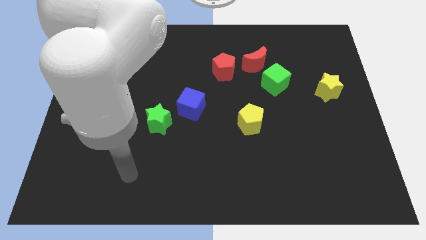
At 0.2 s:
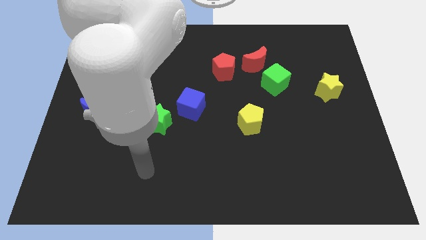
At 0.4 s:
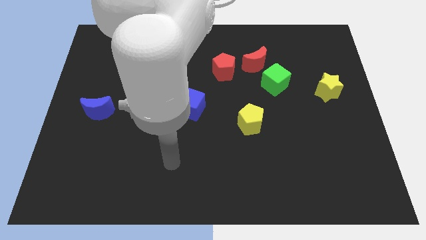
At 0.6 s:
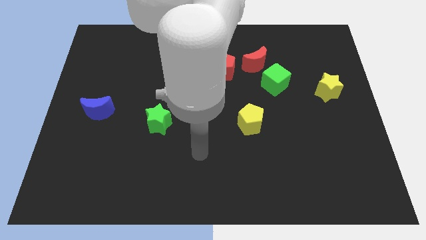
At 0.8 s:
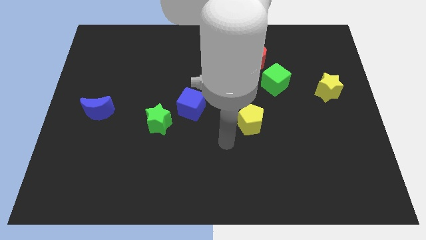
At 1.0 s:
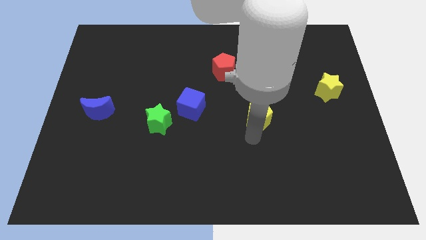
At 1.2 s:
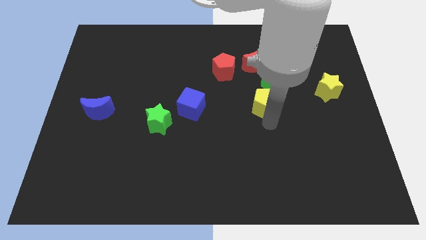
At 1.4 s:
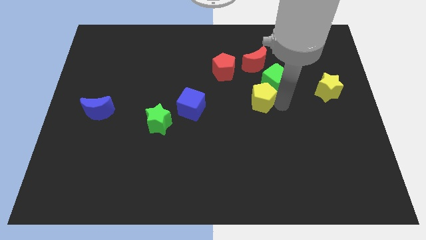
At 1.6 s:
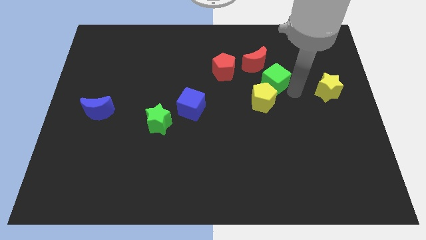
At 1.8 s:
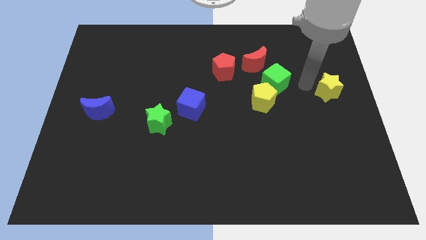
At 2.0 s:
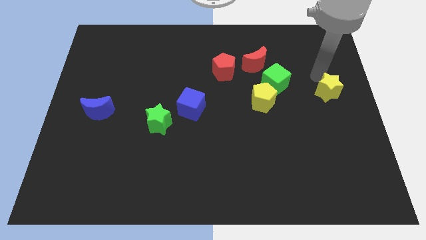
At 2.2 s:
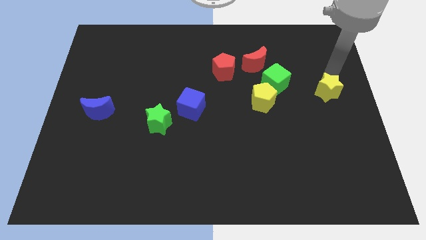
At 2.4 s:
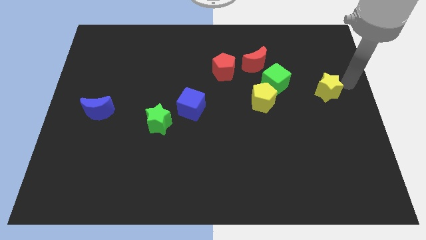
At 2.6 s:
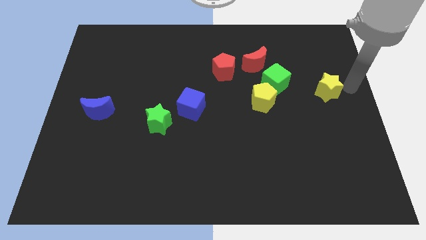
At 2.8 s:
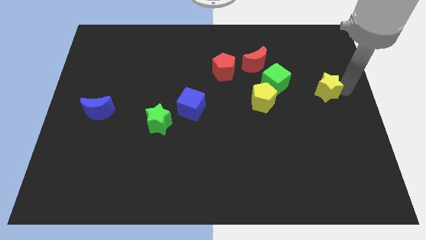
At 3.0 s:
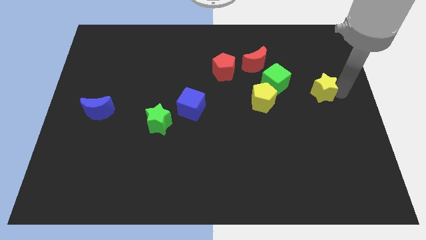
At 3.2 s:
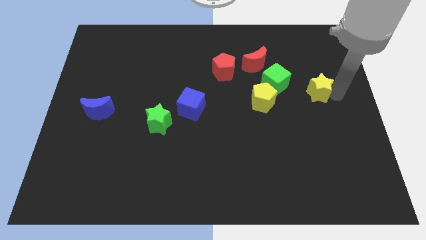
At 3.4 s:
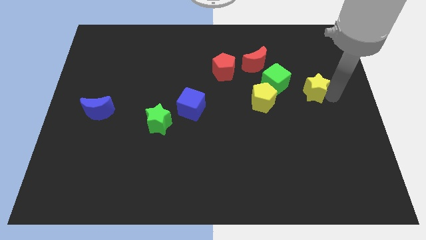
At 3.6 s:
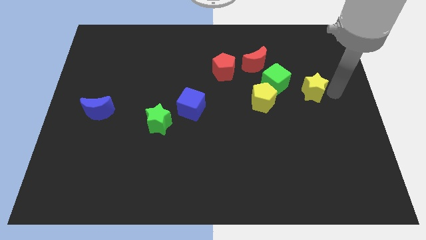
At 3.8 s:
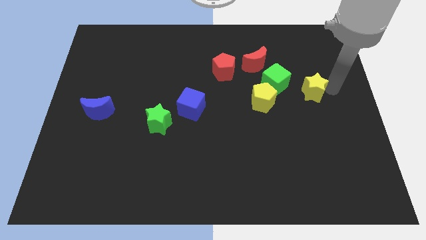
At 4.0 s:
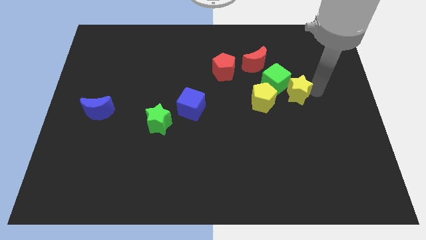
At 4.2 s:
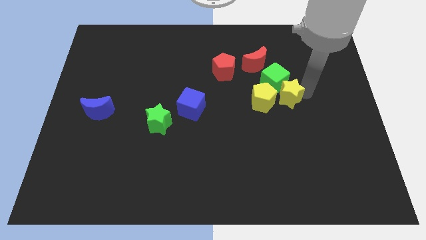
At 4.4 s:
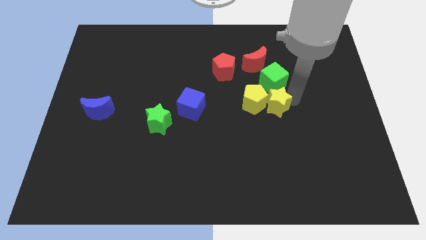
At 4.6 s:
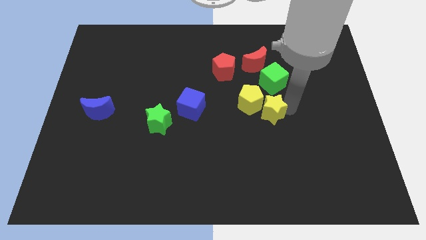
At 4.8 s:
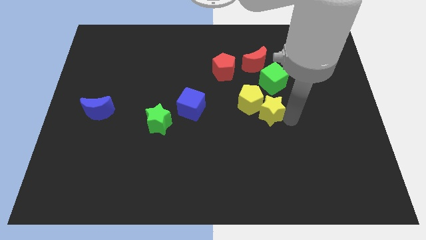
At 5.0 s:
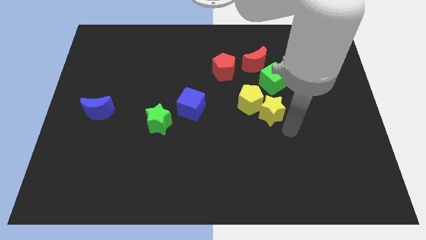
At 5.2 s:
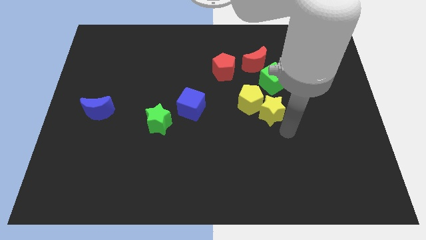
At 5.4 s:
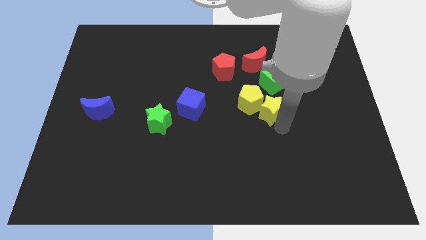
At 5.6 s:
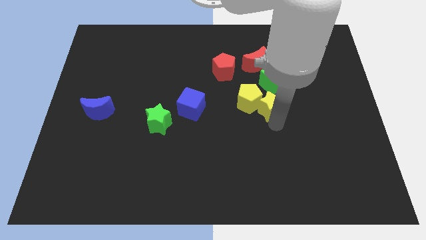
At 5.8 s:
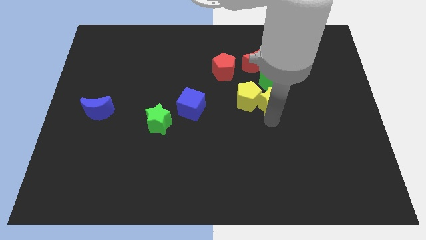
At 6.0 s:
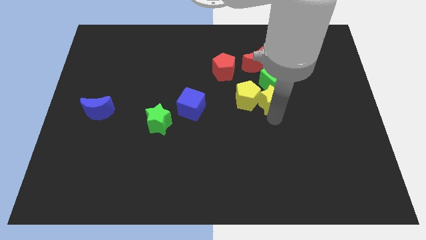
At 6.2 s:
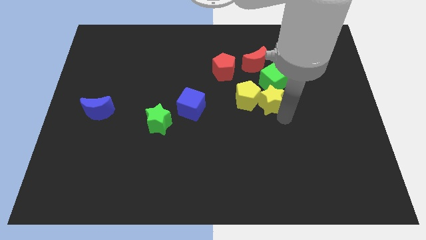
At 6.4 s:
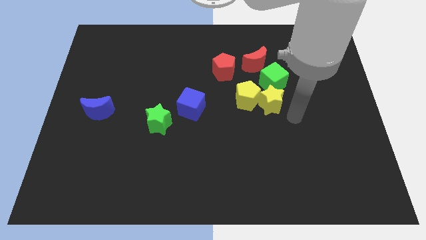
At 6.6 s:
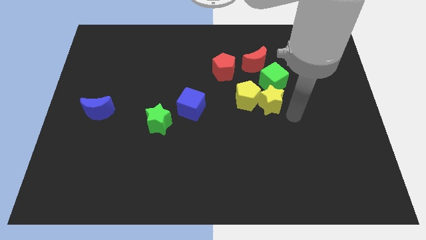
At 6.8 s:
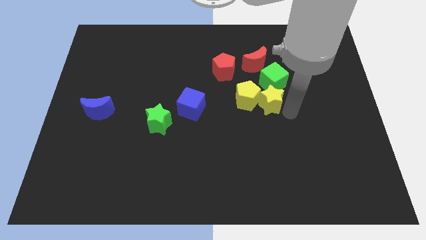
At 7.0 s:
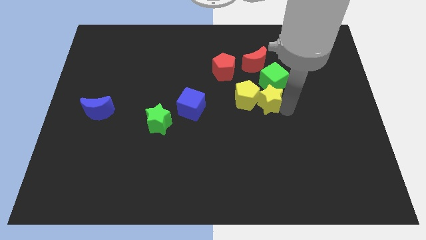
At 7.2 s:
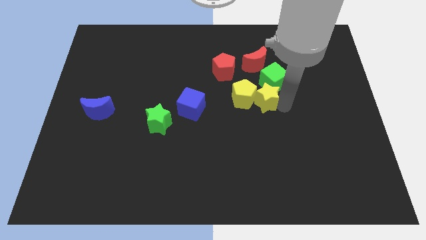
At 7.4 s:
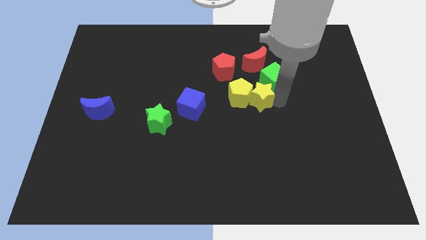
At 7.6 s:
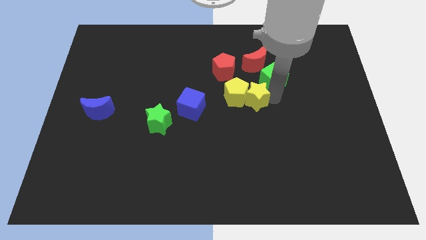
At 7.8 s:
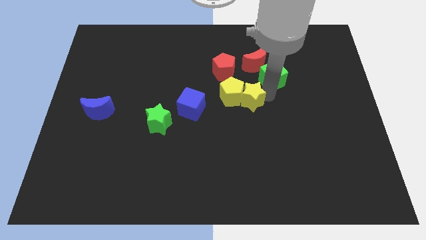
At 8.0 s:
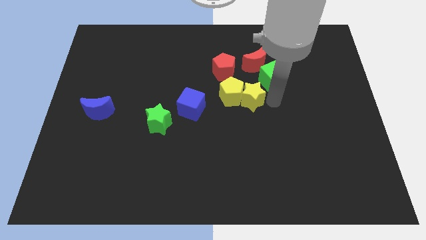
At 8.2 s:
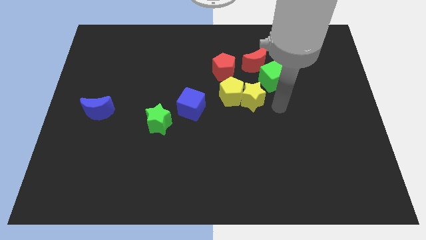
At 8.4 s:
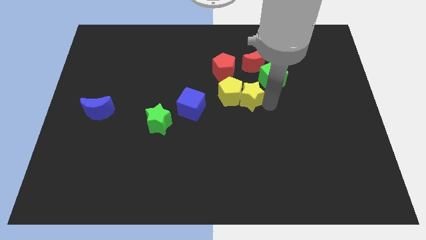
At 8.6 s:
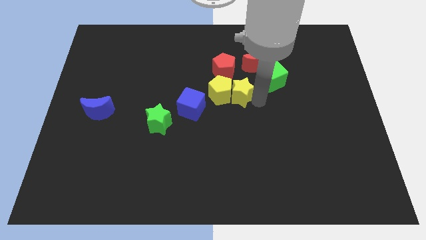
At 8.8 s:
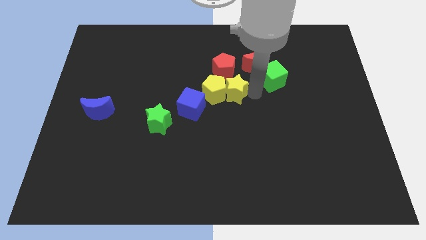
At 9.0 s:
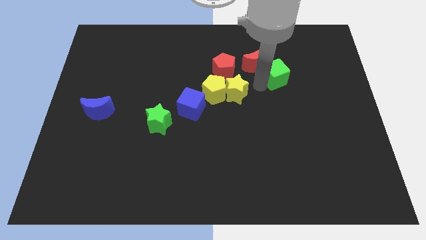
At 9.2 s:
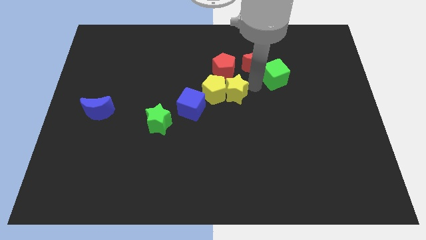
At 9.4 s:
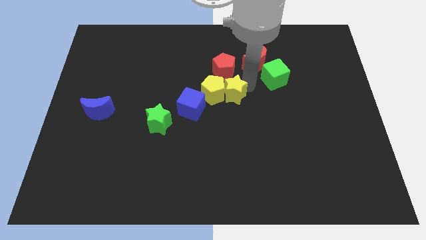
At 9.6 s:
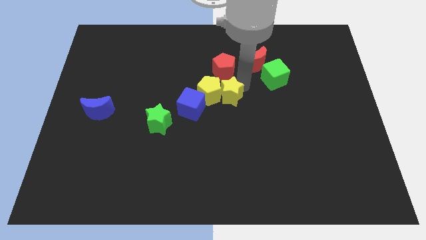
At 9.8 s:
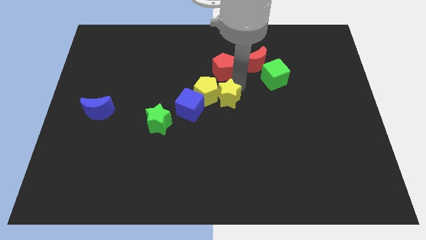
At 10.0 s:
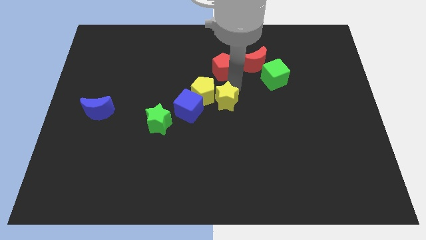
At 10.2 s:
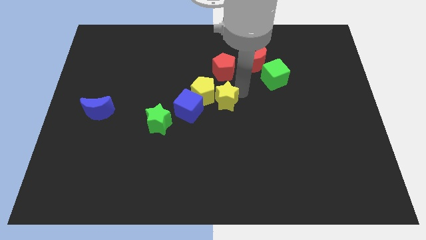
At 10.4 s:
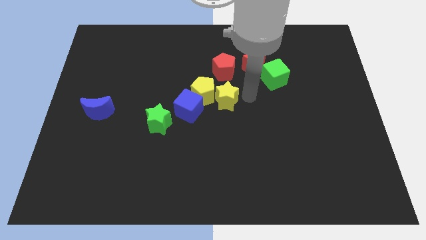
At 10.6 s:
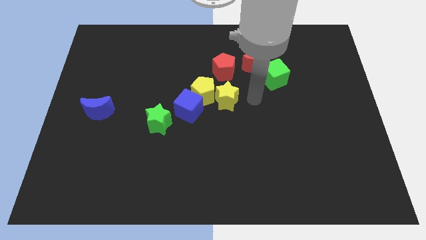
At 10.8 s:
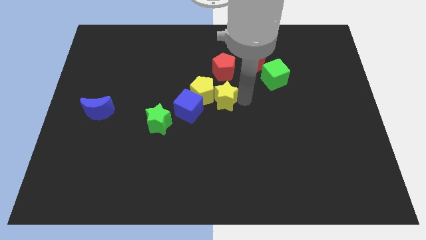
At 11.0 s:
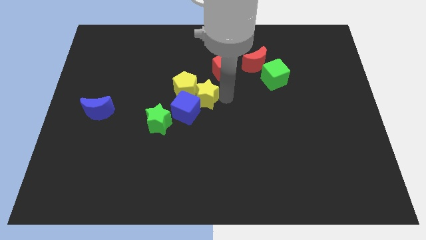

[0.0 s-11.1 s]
push the yellow star close to the blue cube

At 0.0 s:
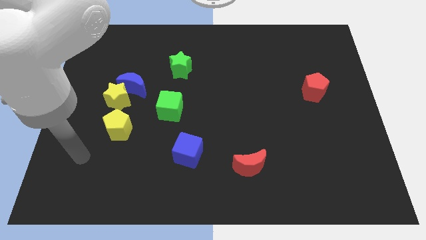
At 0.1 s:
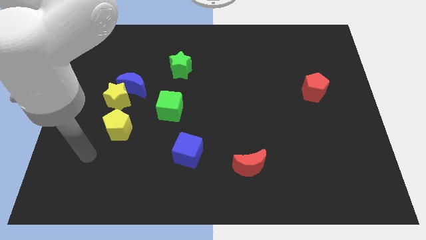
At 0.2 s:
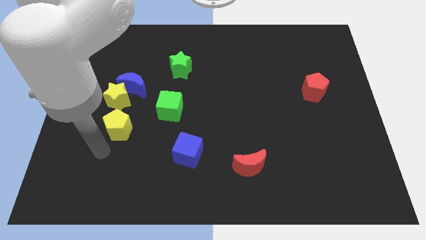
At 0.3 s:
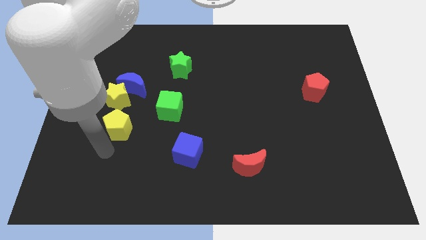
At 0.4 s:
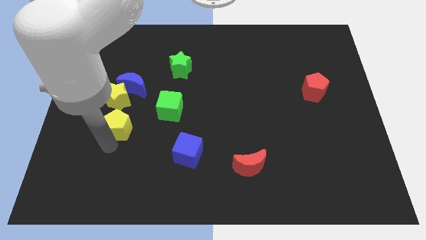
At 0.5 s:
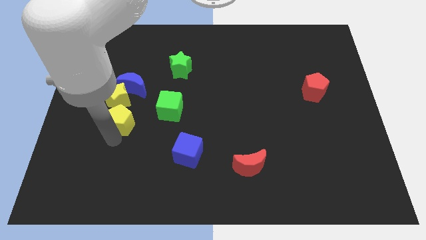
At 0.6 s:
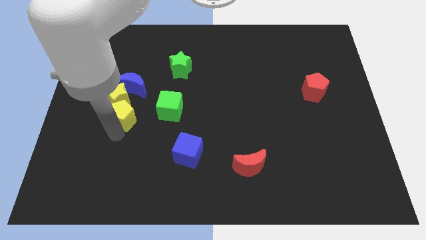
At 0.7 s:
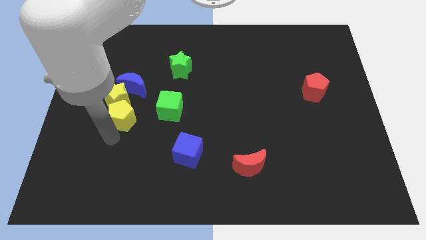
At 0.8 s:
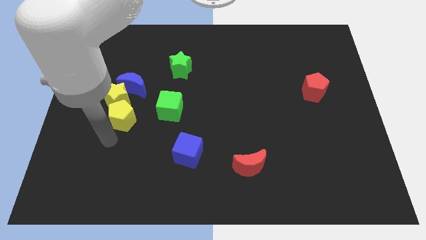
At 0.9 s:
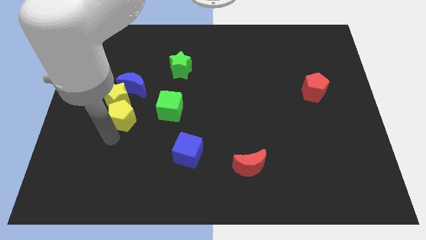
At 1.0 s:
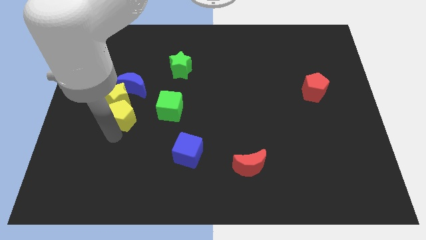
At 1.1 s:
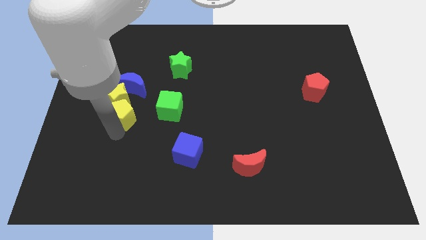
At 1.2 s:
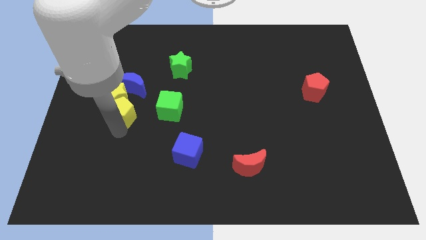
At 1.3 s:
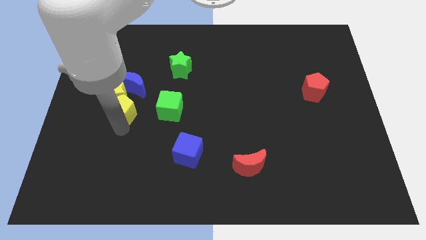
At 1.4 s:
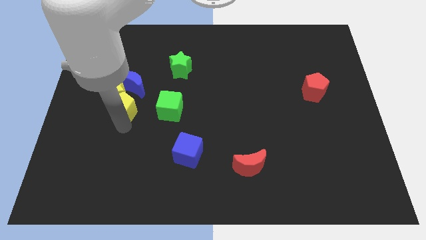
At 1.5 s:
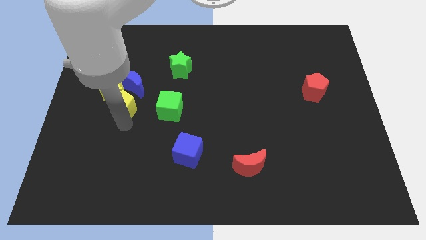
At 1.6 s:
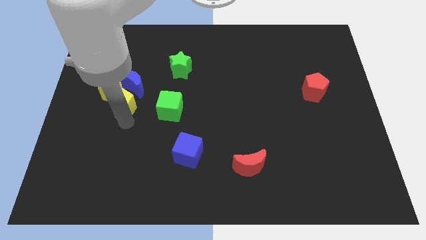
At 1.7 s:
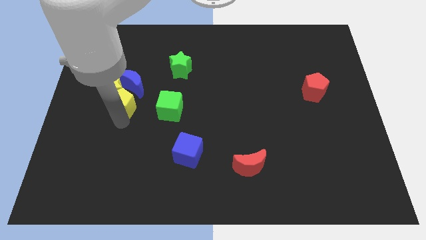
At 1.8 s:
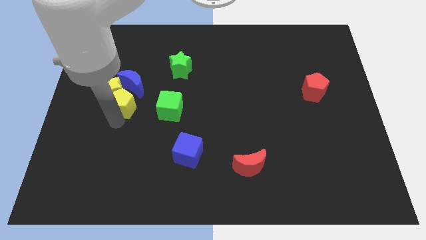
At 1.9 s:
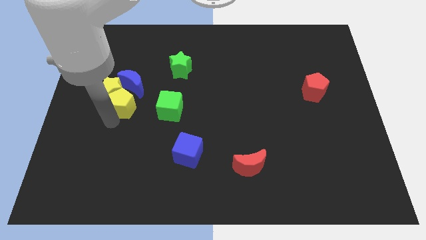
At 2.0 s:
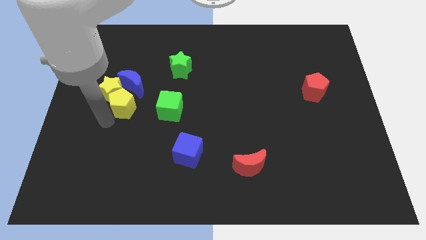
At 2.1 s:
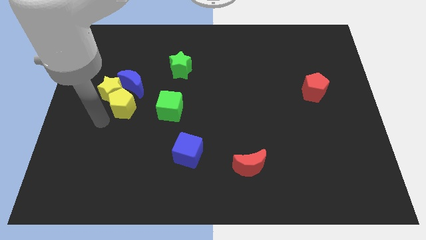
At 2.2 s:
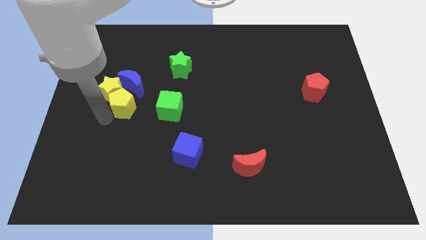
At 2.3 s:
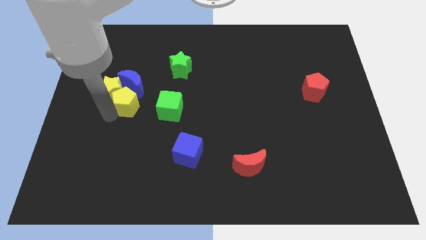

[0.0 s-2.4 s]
move the yellow pentagon close to the blue moon
